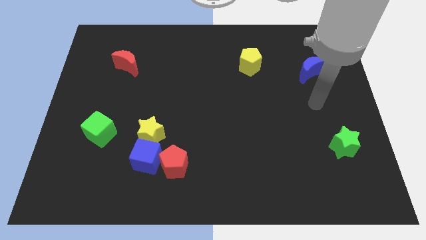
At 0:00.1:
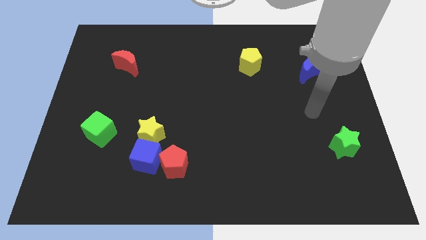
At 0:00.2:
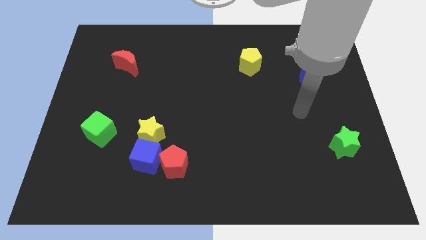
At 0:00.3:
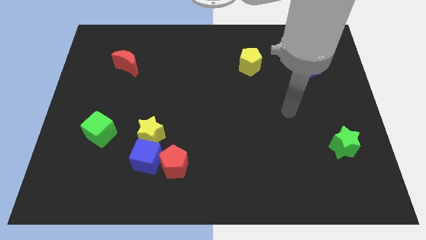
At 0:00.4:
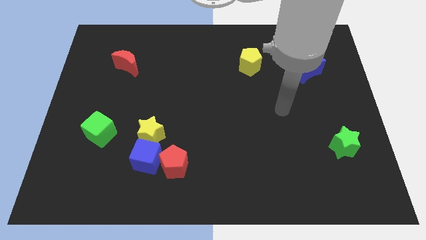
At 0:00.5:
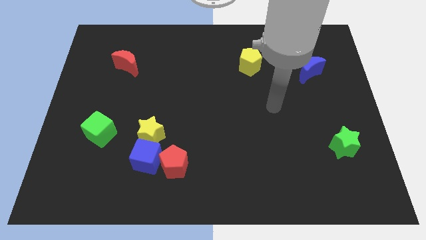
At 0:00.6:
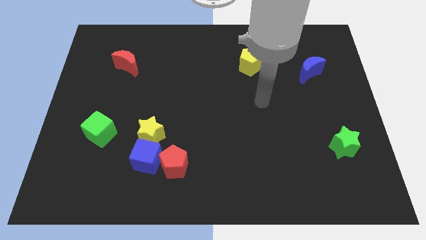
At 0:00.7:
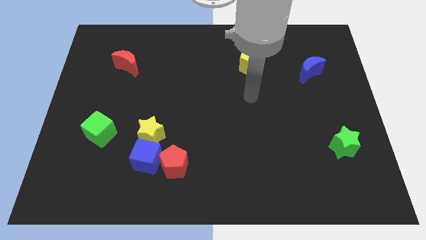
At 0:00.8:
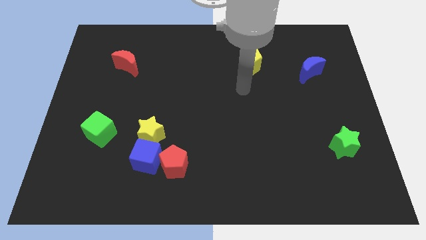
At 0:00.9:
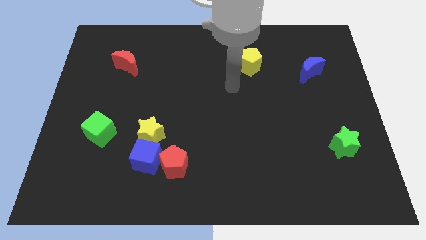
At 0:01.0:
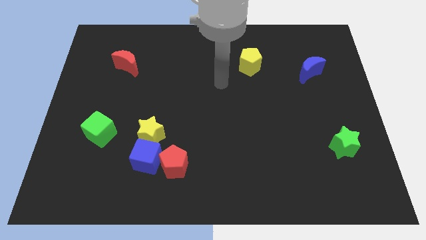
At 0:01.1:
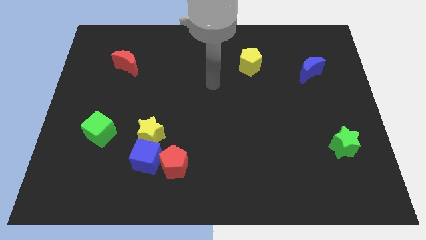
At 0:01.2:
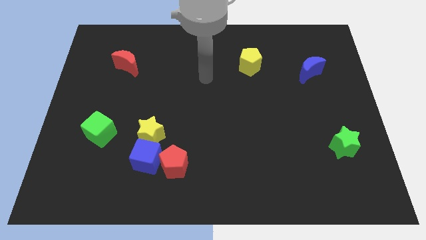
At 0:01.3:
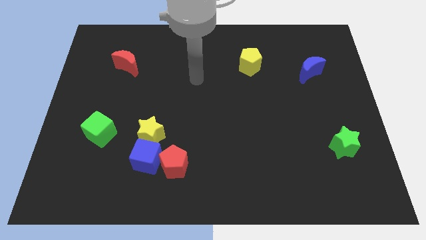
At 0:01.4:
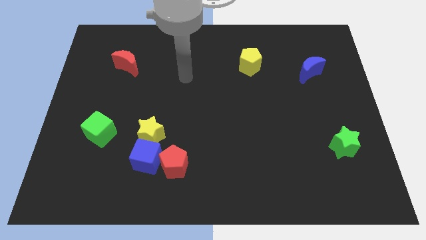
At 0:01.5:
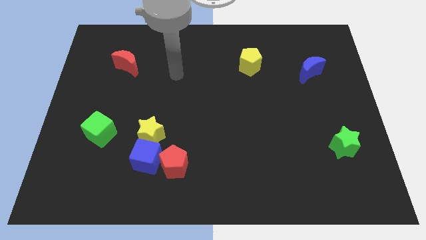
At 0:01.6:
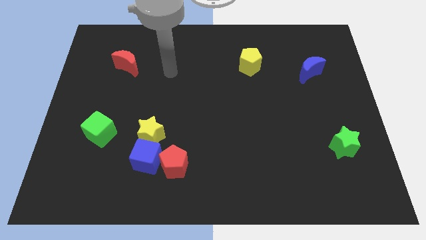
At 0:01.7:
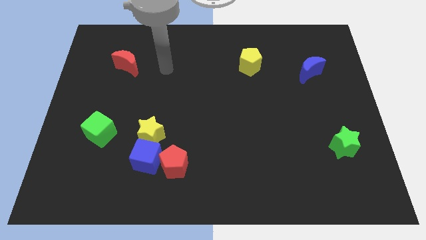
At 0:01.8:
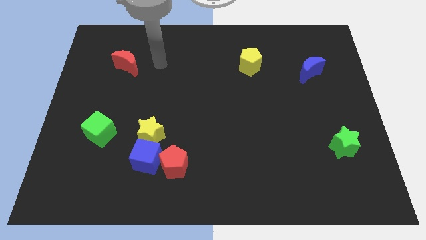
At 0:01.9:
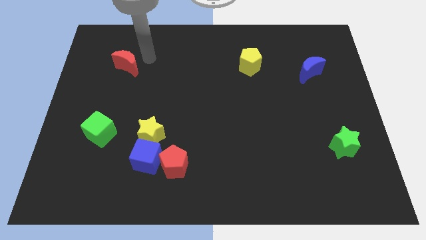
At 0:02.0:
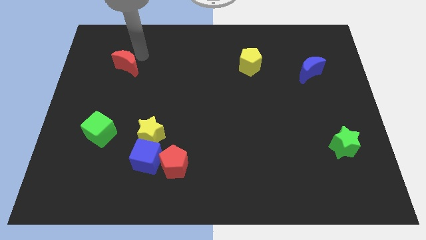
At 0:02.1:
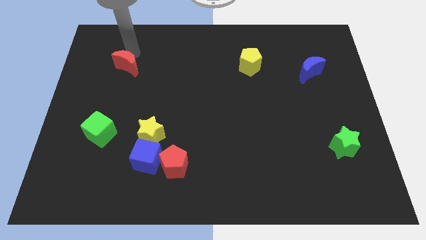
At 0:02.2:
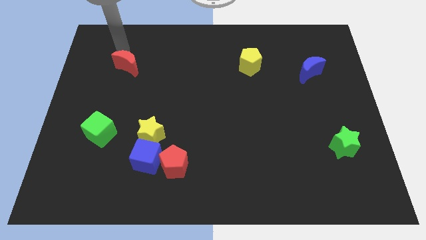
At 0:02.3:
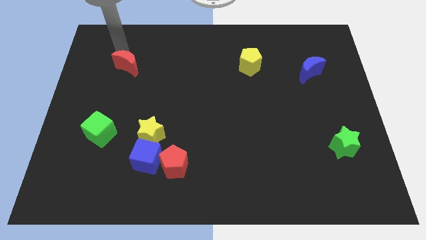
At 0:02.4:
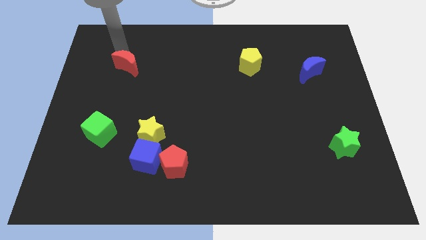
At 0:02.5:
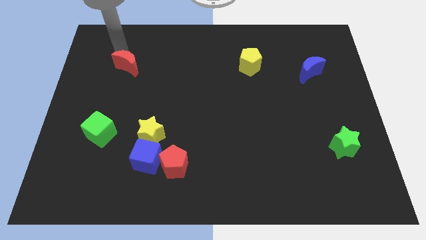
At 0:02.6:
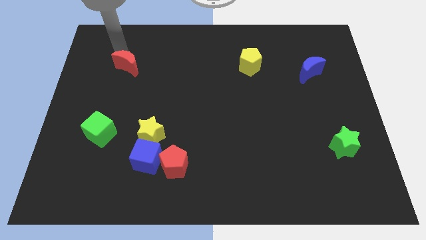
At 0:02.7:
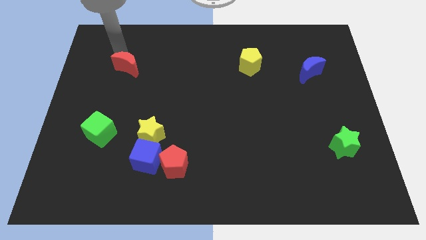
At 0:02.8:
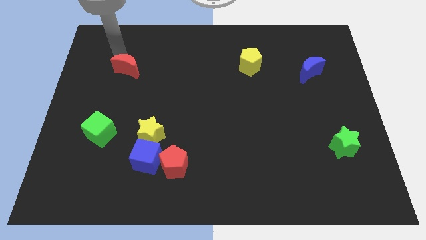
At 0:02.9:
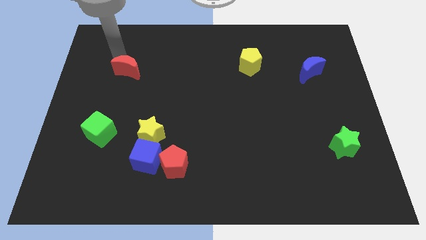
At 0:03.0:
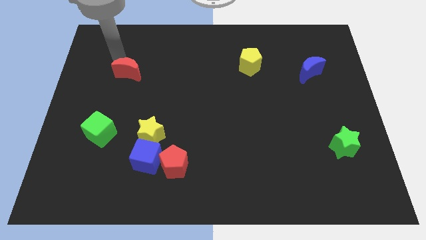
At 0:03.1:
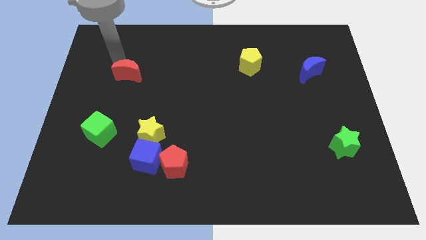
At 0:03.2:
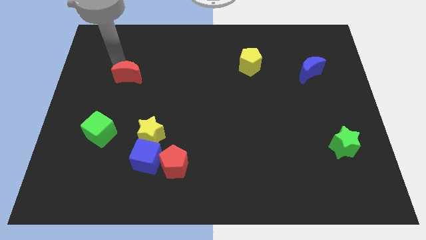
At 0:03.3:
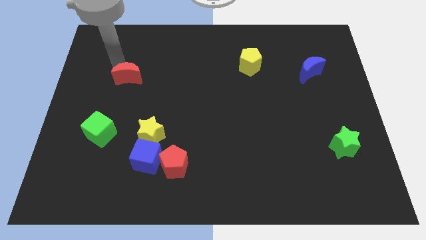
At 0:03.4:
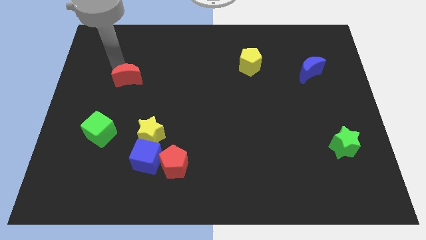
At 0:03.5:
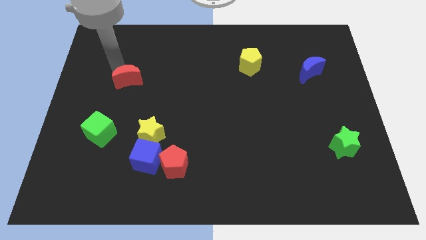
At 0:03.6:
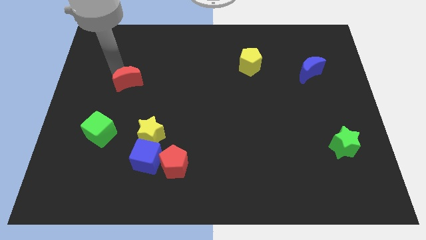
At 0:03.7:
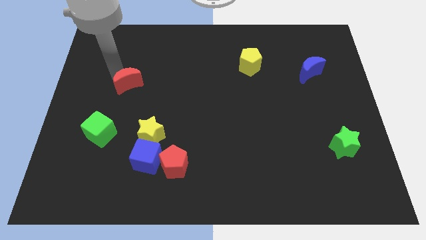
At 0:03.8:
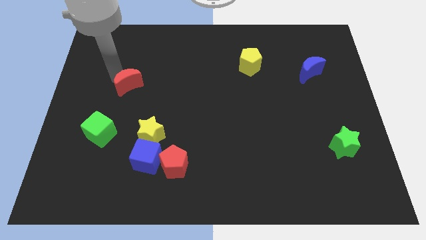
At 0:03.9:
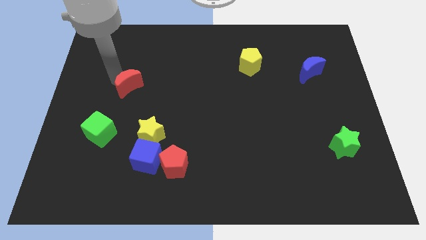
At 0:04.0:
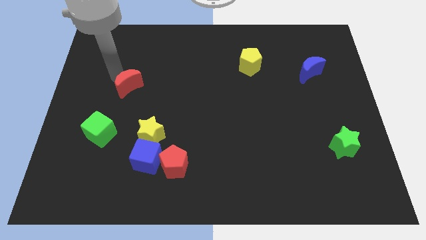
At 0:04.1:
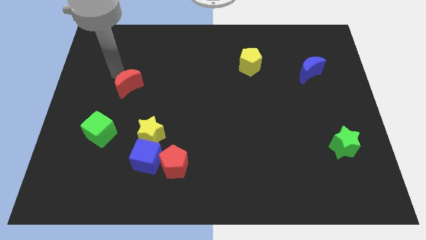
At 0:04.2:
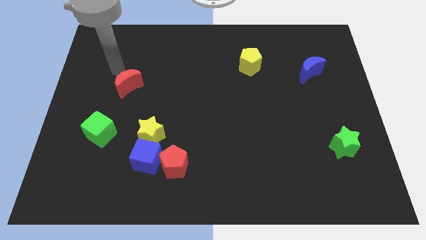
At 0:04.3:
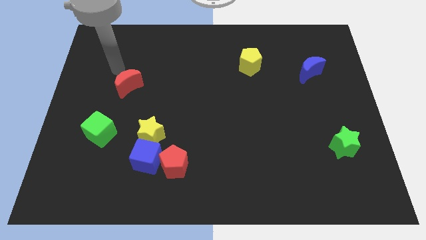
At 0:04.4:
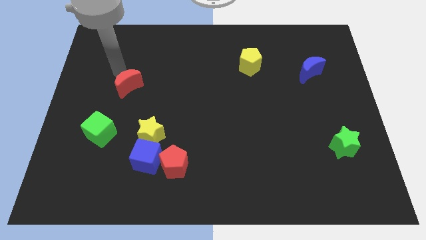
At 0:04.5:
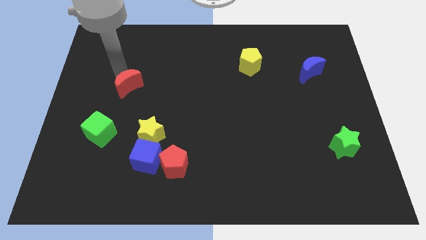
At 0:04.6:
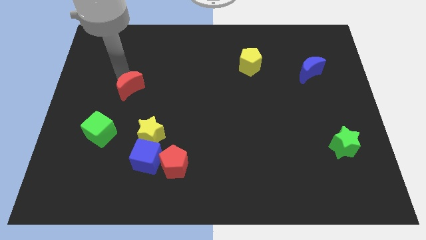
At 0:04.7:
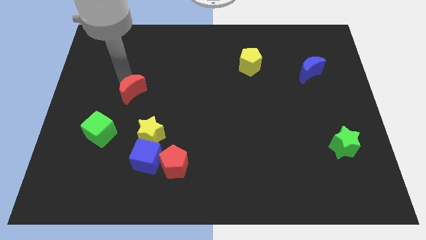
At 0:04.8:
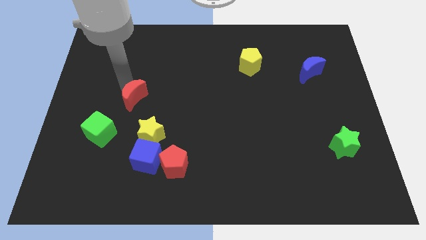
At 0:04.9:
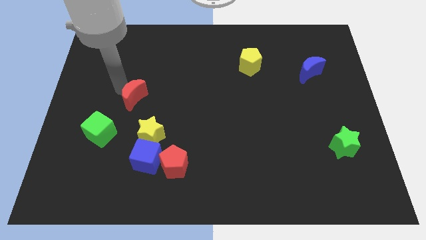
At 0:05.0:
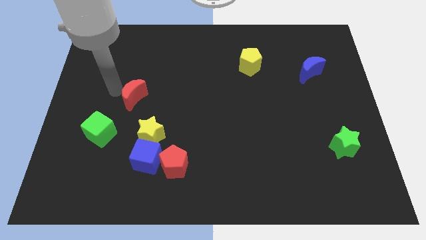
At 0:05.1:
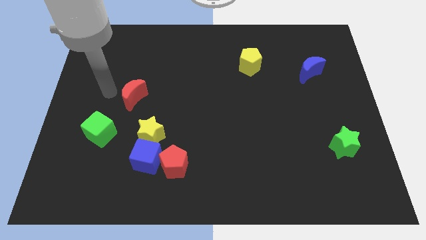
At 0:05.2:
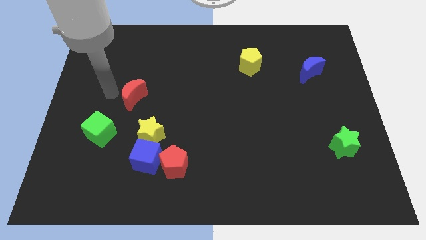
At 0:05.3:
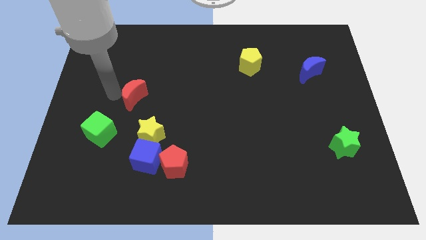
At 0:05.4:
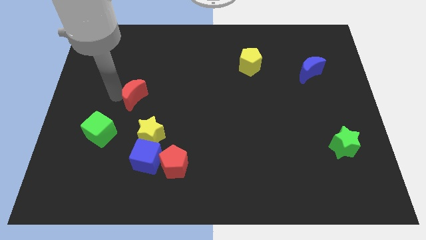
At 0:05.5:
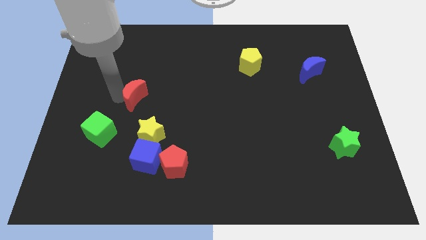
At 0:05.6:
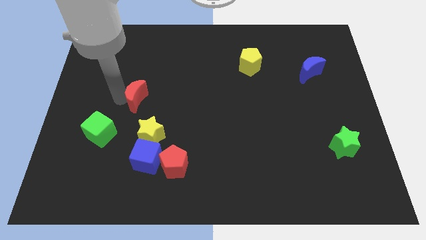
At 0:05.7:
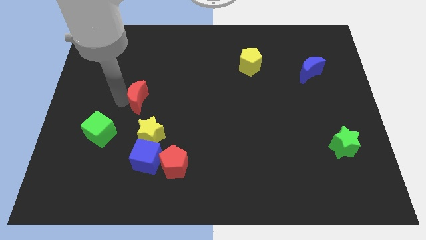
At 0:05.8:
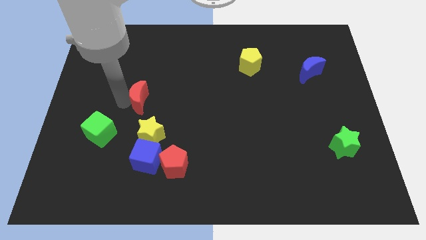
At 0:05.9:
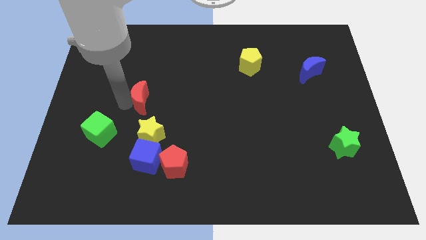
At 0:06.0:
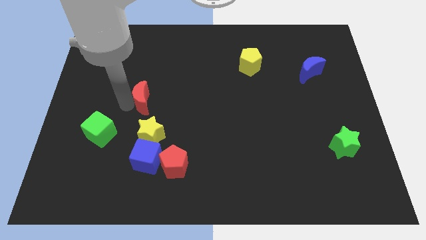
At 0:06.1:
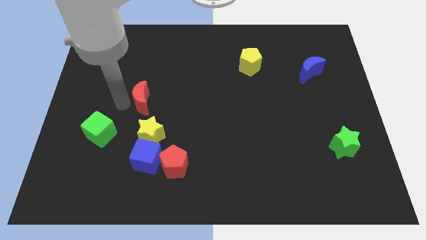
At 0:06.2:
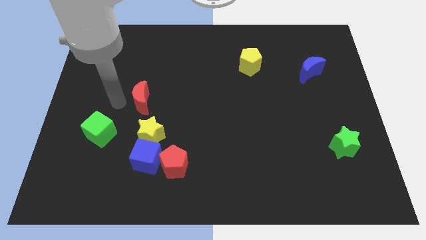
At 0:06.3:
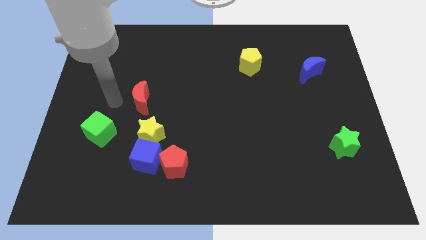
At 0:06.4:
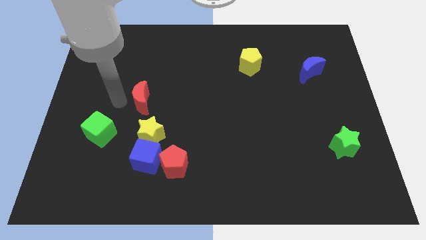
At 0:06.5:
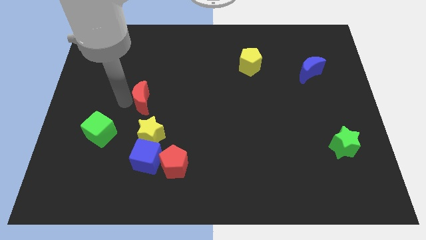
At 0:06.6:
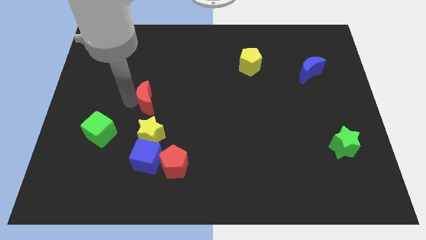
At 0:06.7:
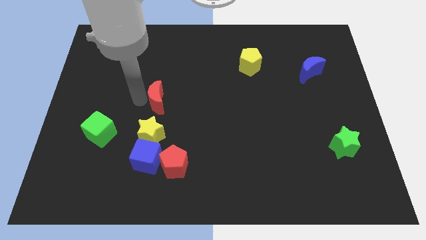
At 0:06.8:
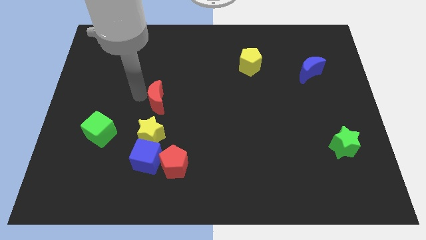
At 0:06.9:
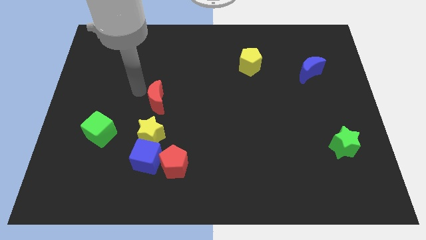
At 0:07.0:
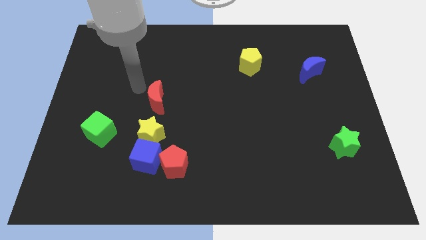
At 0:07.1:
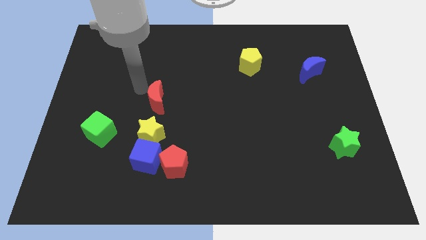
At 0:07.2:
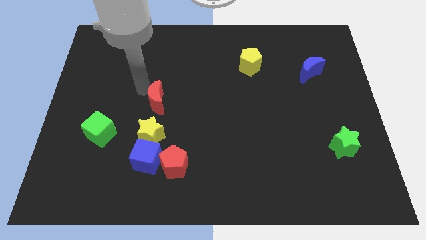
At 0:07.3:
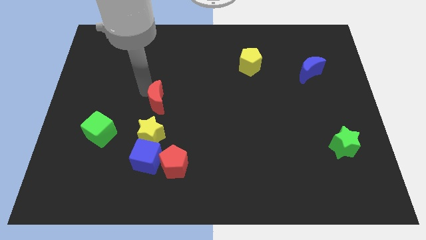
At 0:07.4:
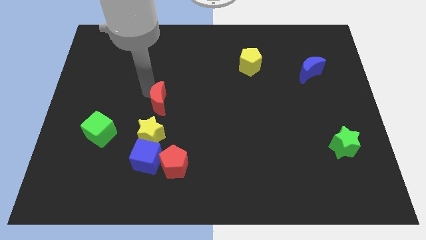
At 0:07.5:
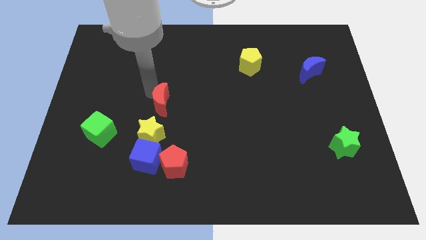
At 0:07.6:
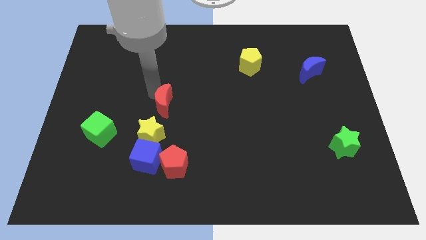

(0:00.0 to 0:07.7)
slide the red moon to the top right side of the yellow star
